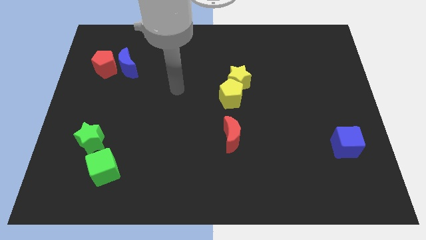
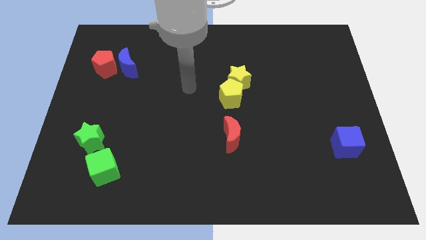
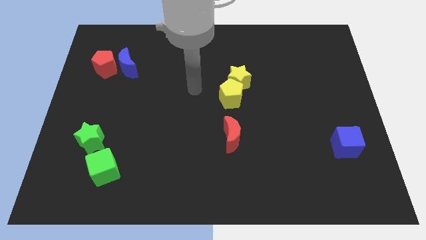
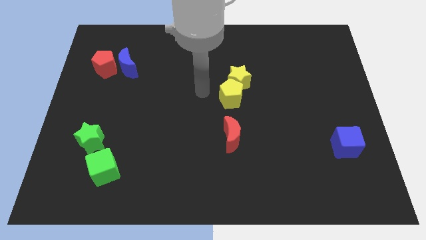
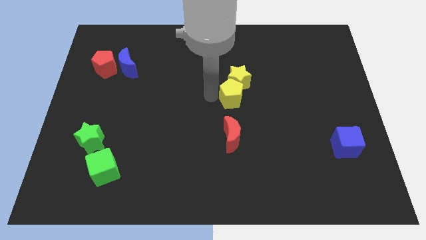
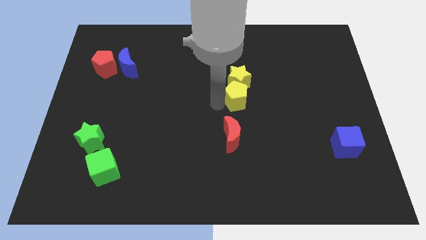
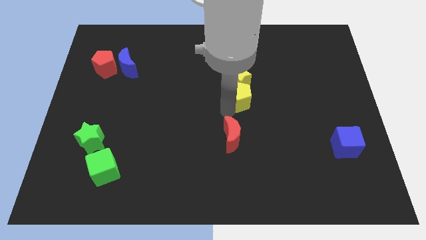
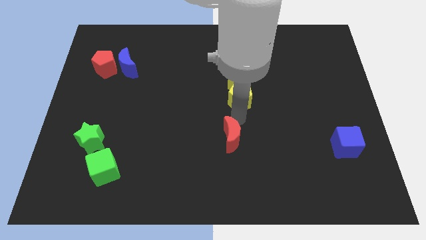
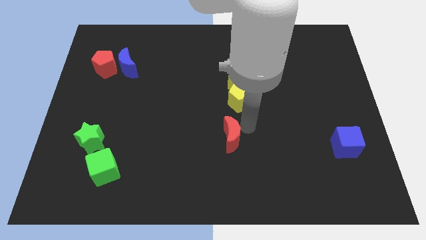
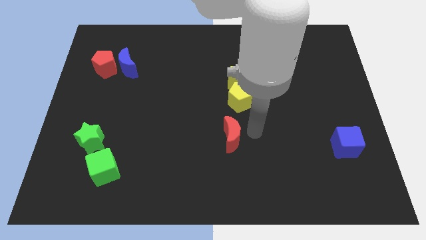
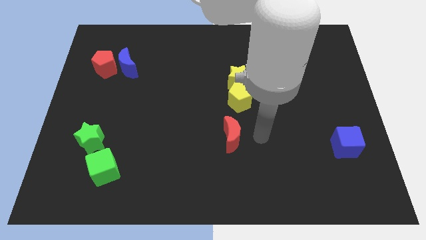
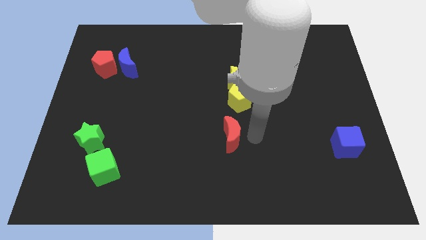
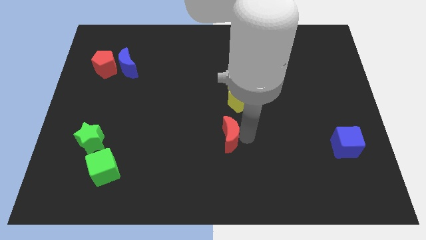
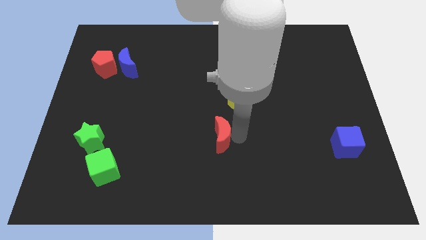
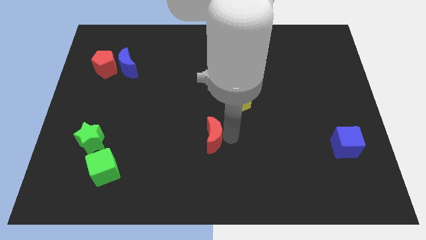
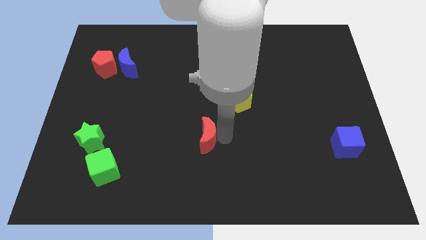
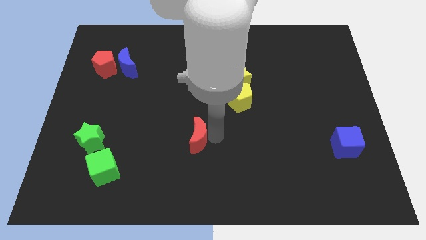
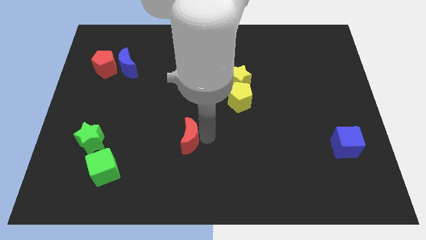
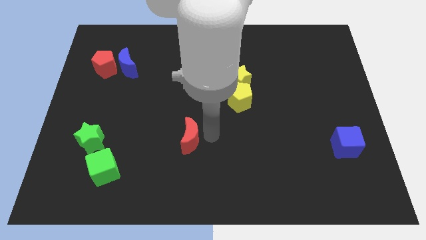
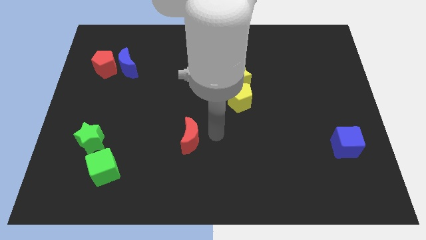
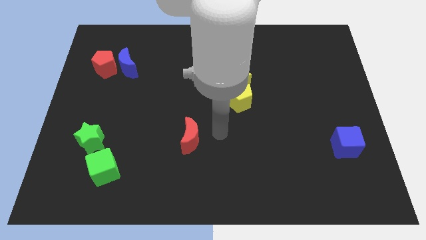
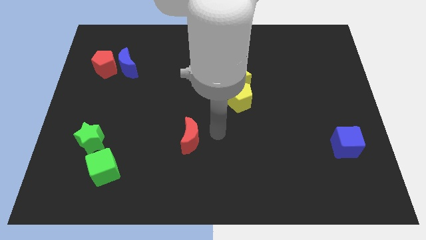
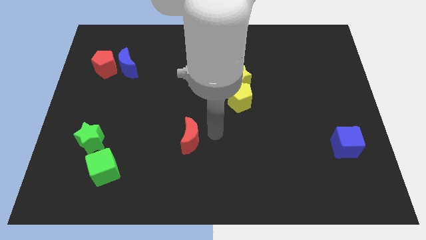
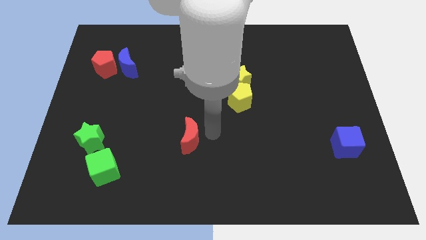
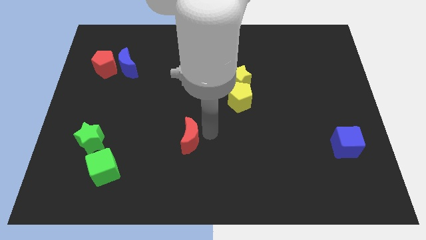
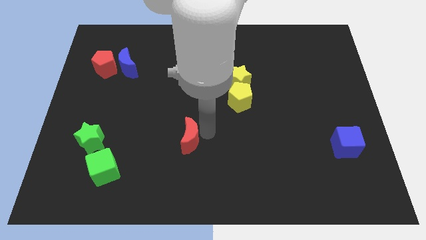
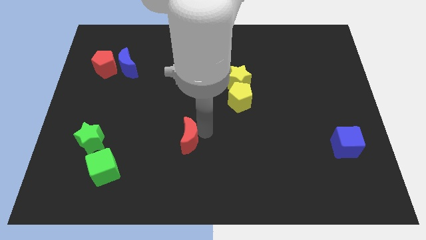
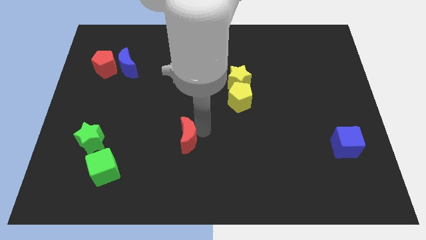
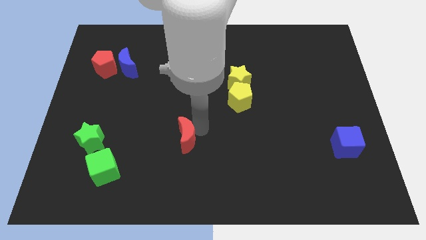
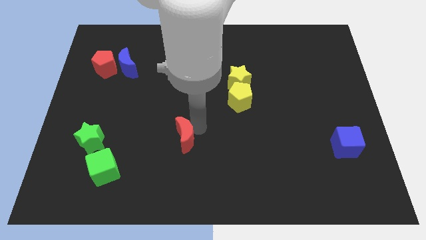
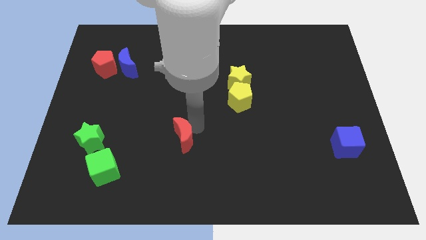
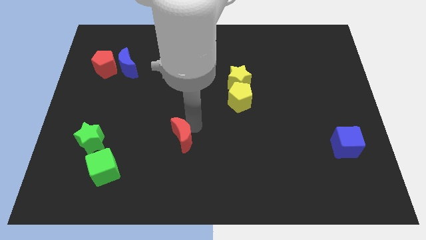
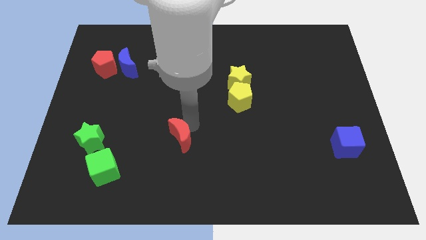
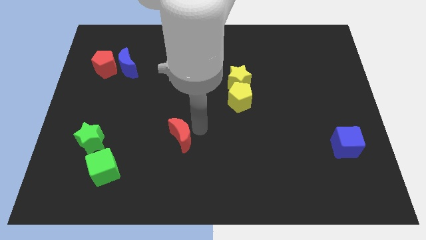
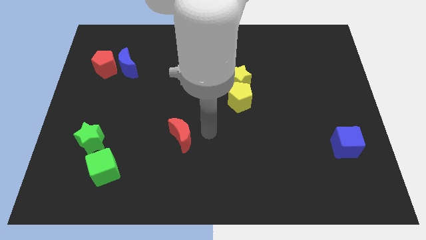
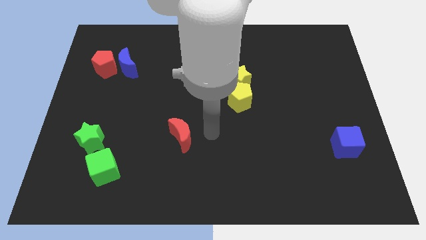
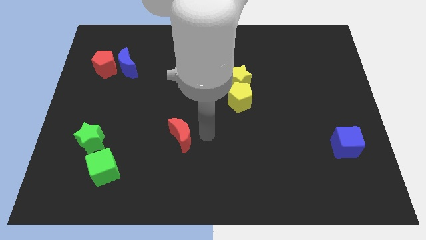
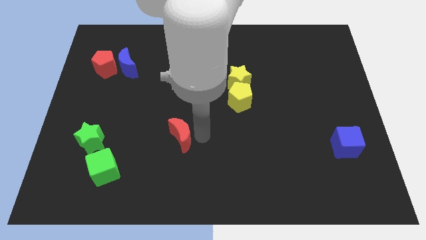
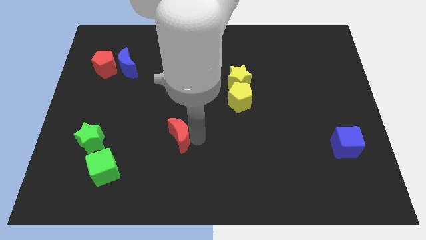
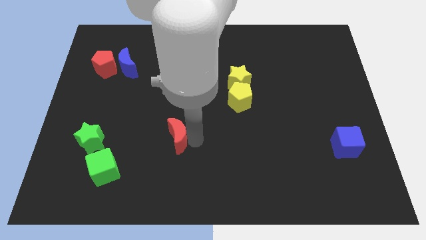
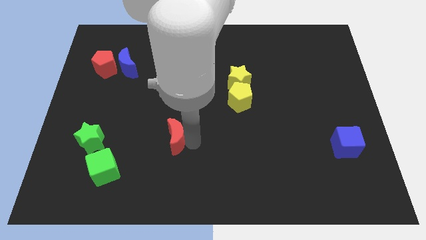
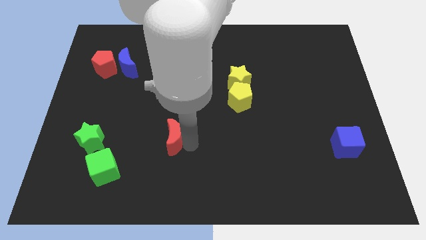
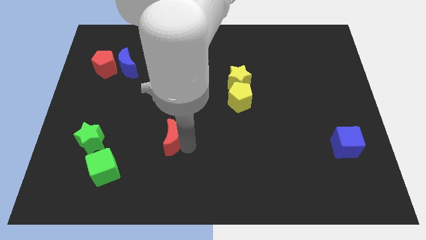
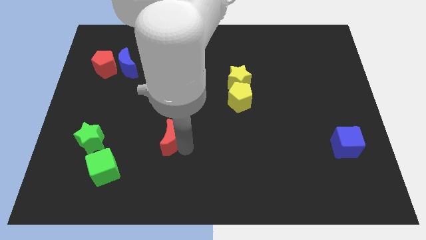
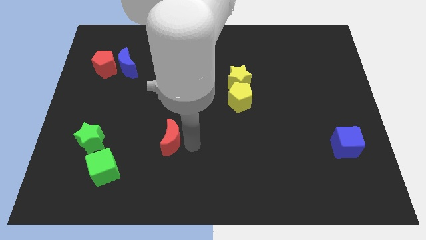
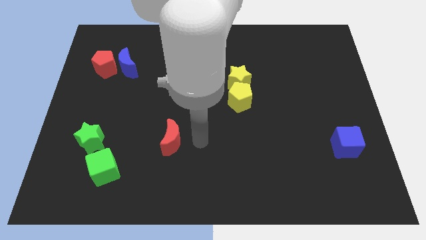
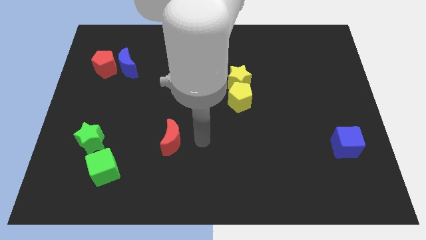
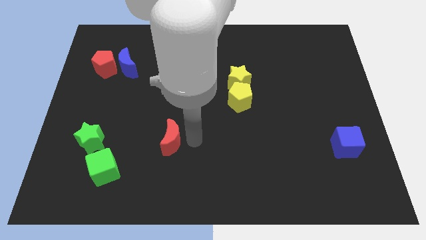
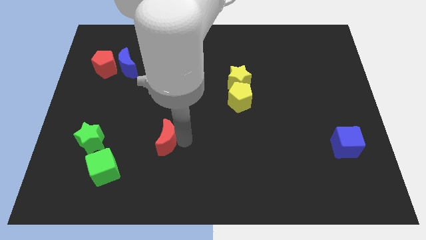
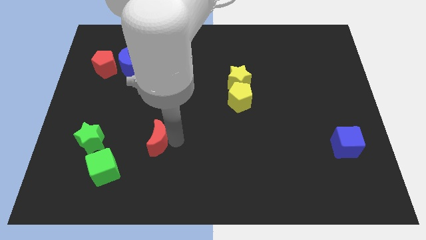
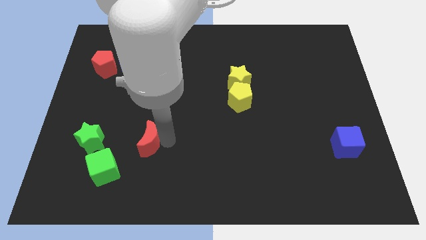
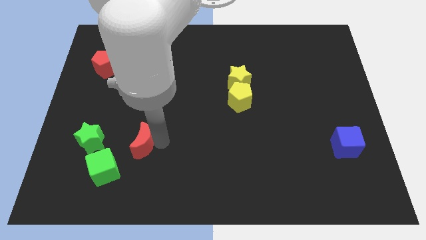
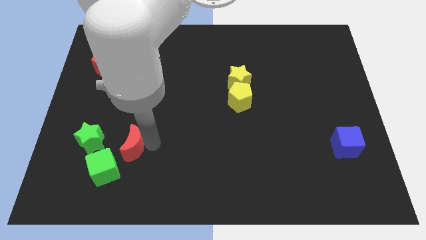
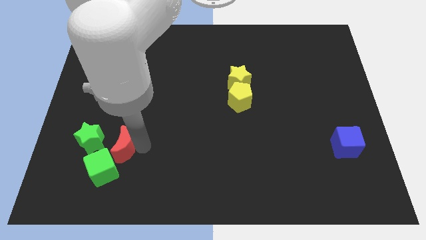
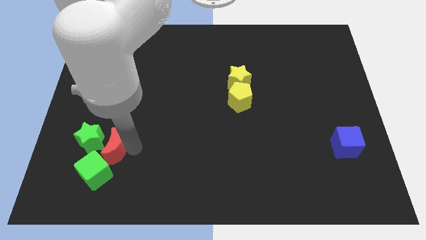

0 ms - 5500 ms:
move the red moon next to the green star

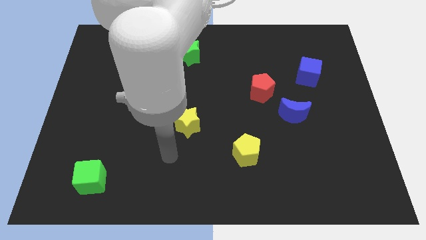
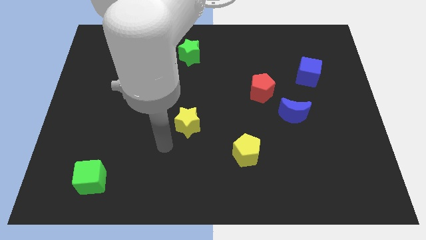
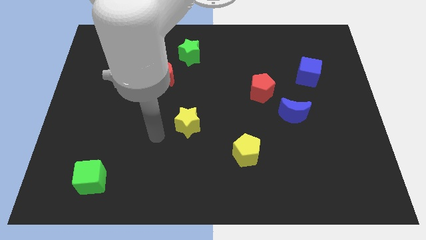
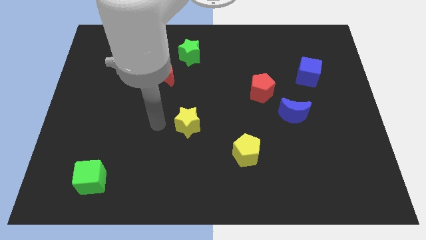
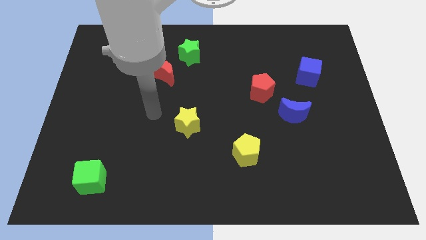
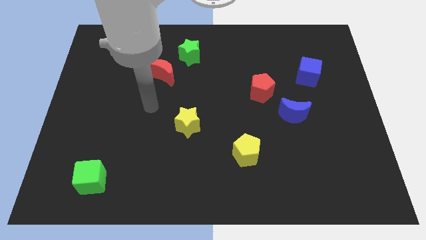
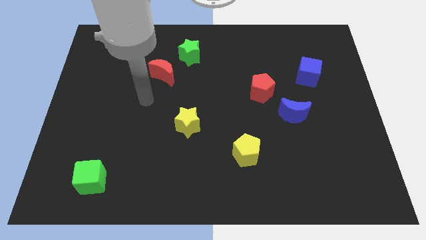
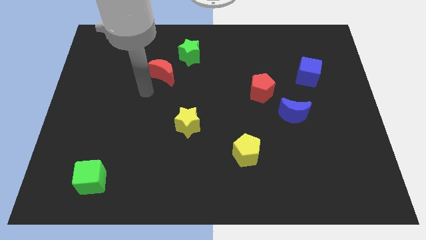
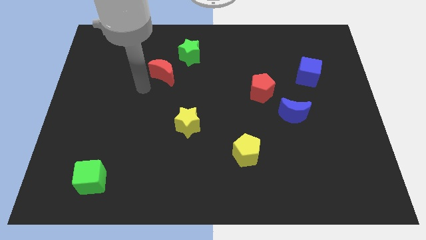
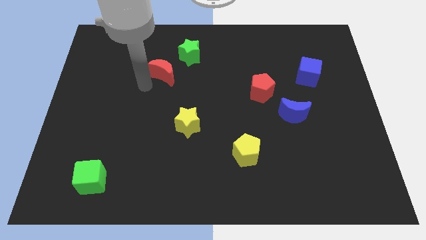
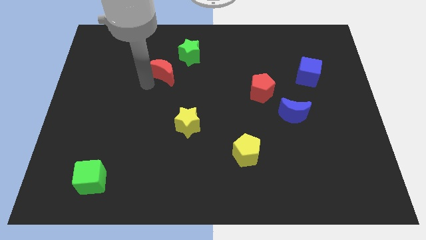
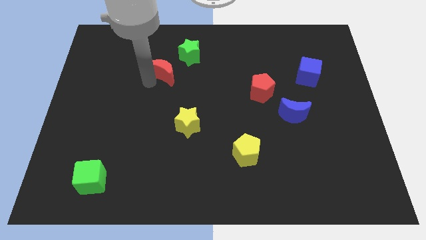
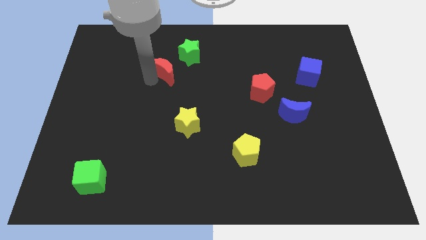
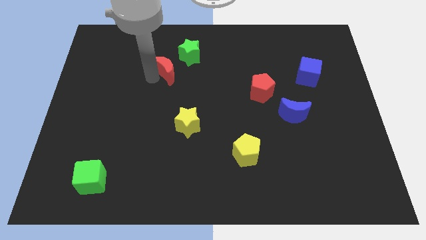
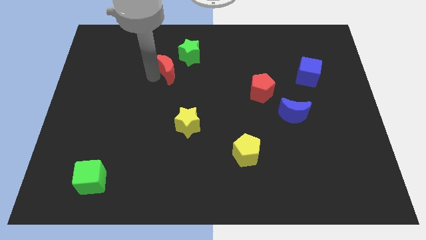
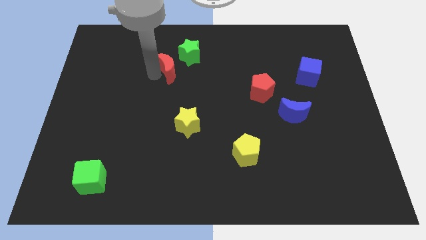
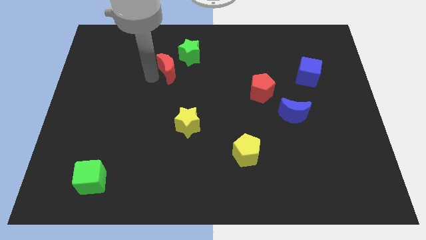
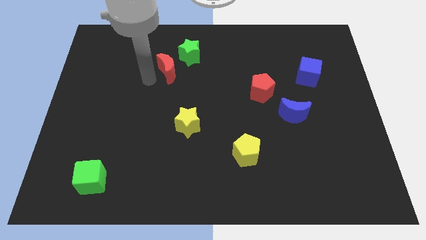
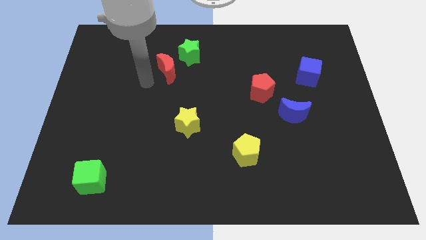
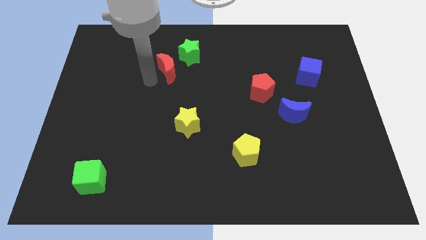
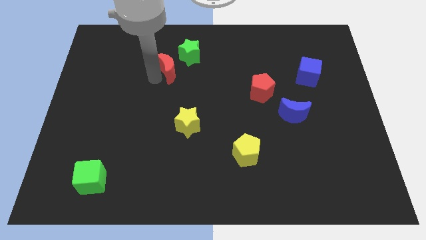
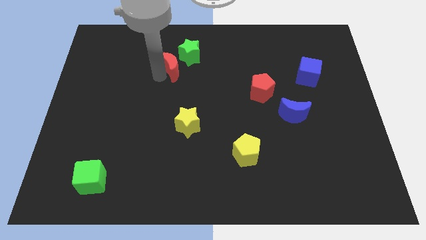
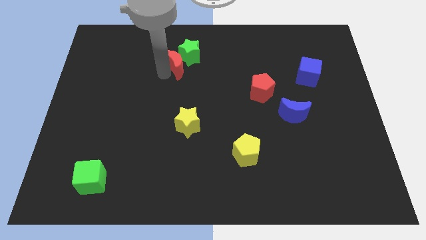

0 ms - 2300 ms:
slide the red moon to the green star
